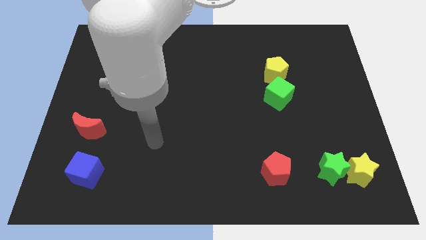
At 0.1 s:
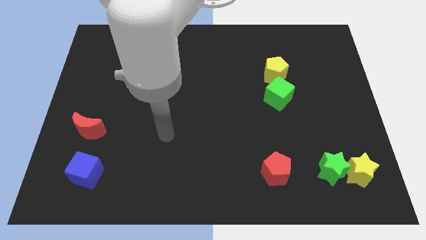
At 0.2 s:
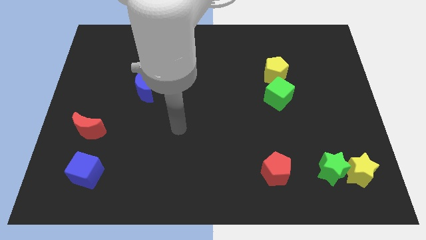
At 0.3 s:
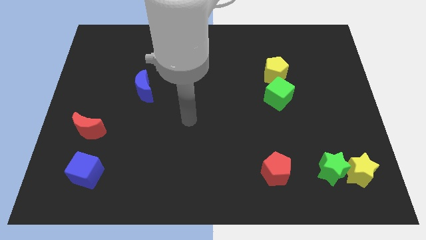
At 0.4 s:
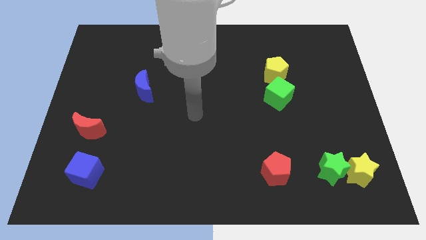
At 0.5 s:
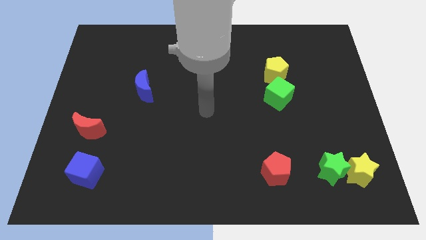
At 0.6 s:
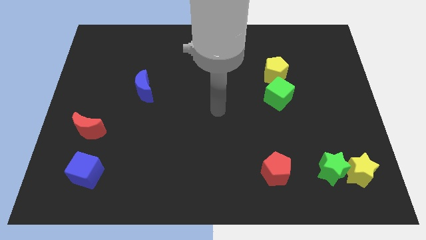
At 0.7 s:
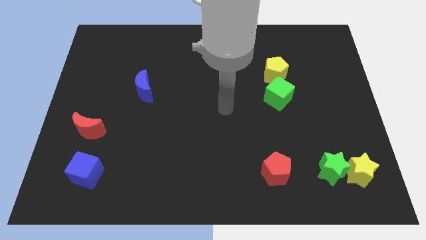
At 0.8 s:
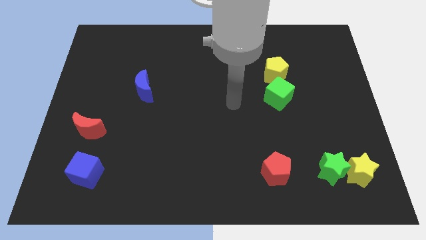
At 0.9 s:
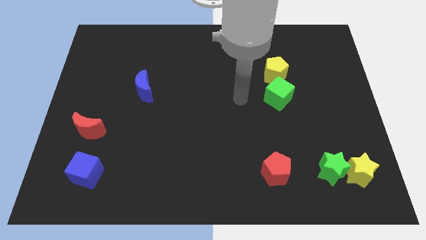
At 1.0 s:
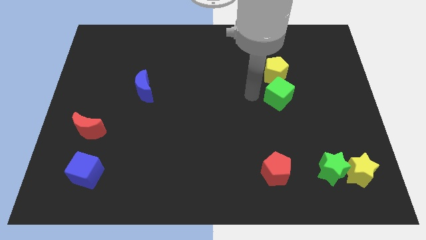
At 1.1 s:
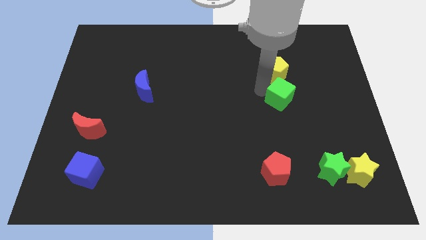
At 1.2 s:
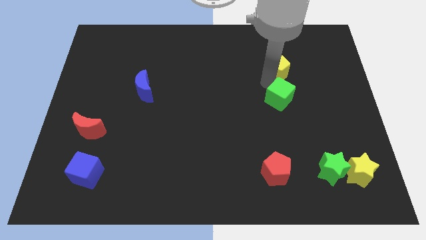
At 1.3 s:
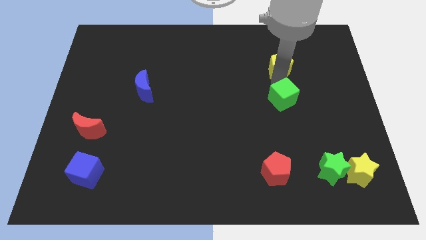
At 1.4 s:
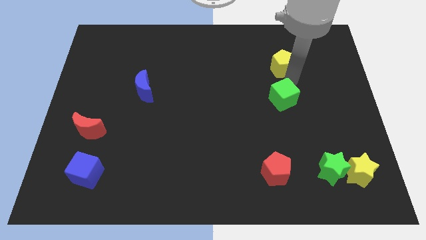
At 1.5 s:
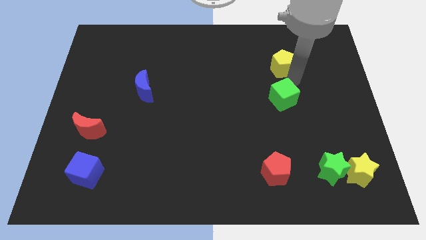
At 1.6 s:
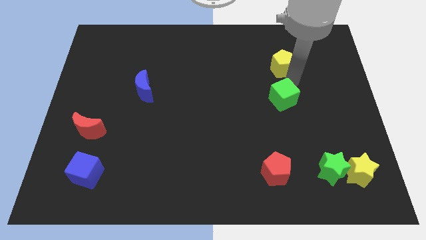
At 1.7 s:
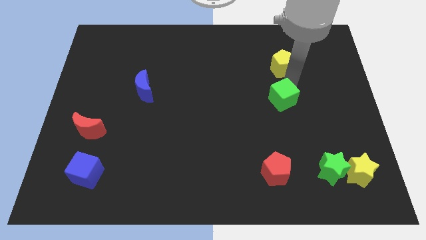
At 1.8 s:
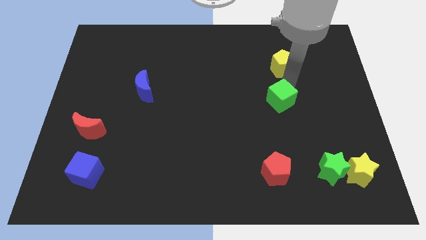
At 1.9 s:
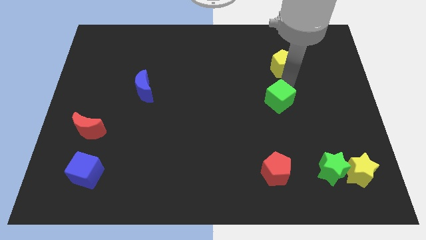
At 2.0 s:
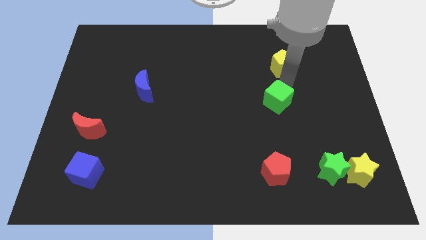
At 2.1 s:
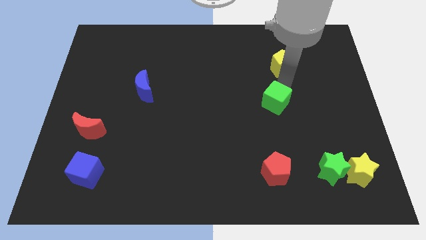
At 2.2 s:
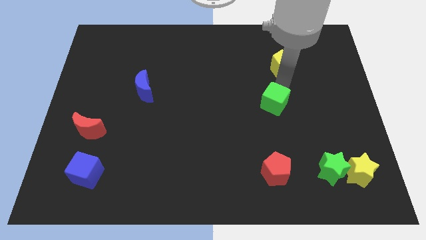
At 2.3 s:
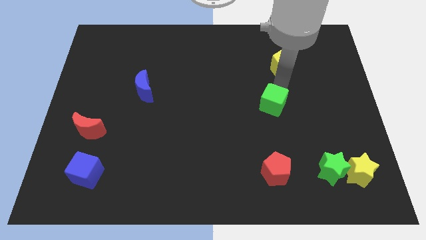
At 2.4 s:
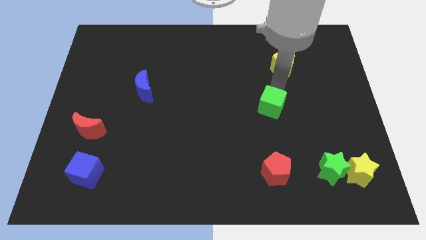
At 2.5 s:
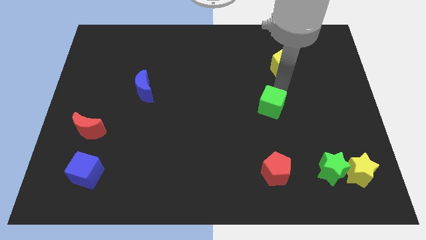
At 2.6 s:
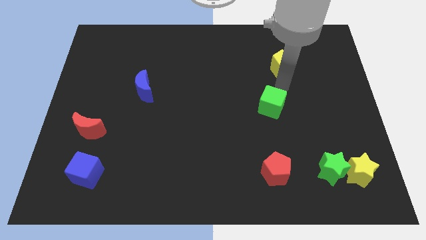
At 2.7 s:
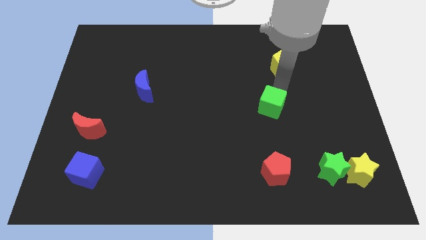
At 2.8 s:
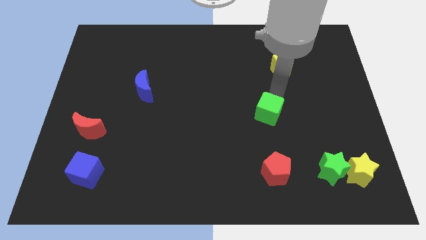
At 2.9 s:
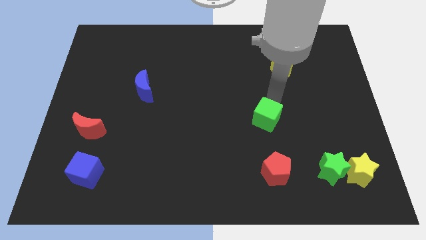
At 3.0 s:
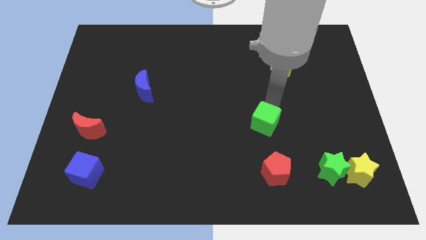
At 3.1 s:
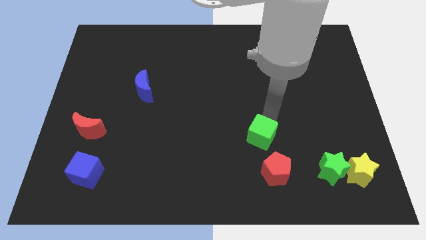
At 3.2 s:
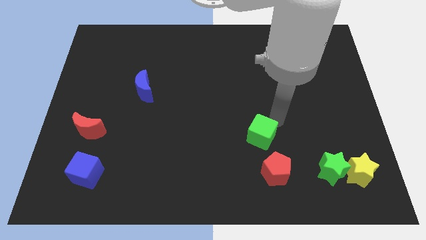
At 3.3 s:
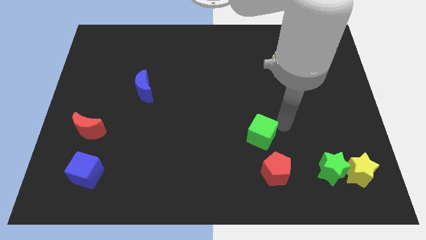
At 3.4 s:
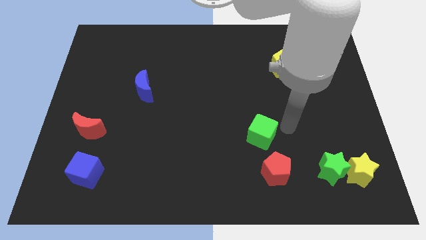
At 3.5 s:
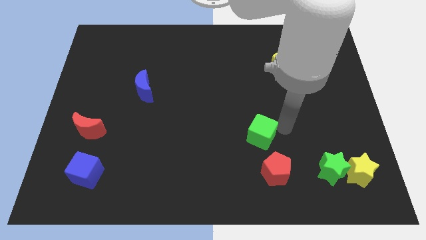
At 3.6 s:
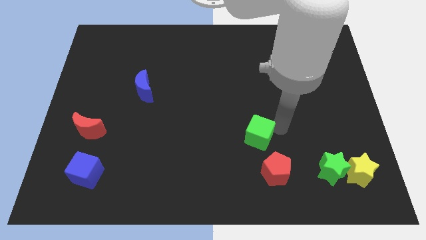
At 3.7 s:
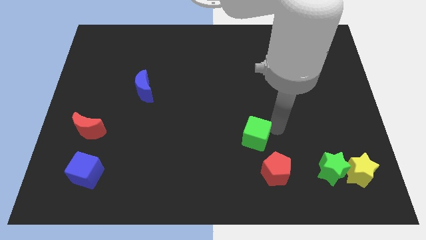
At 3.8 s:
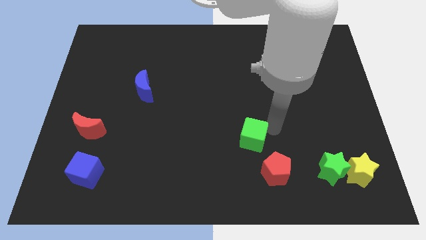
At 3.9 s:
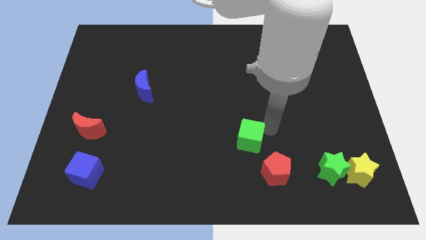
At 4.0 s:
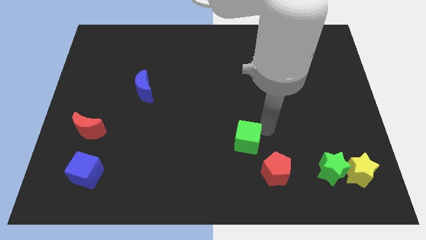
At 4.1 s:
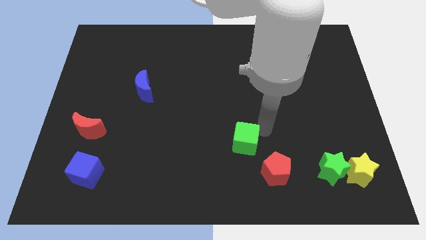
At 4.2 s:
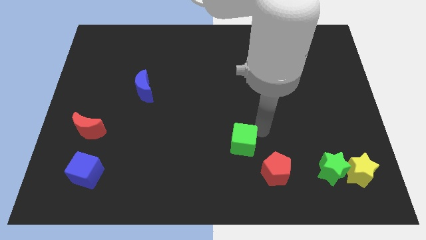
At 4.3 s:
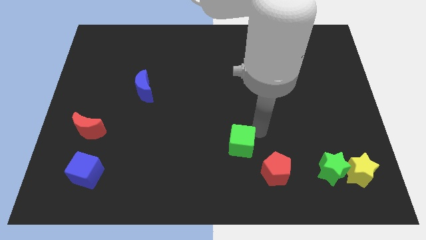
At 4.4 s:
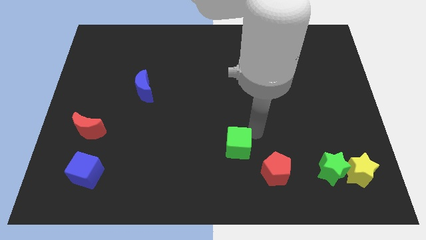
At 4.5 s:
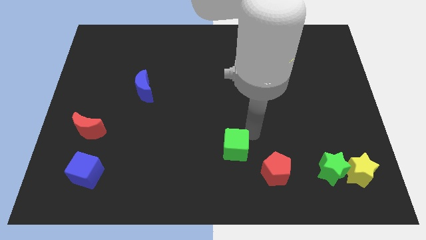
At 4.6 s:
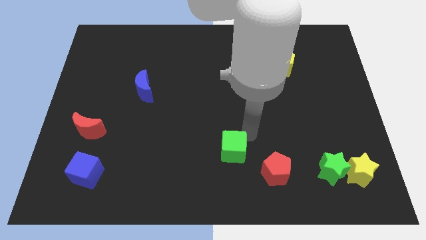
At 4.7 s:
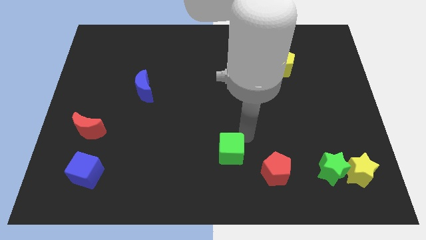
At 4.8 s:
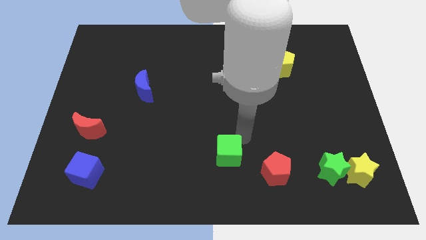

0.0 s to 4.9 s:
slide the green cube diagonally down and left

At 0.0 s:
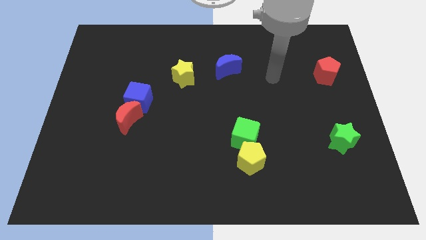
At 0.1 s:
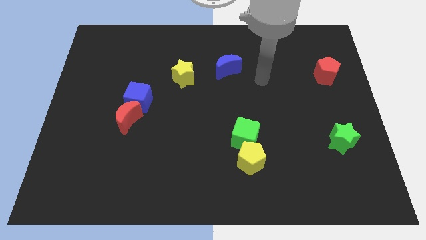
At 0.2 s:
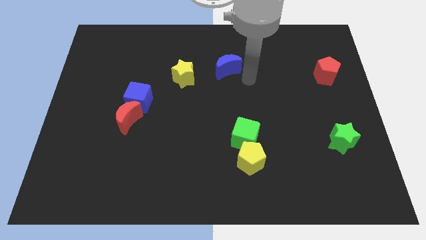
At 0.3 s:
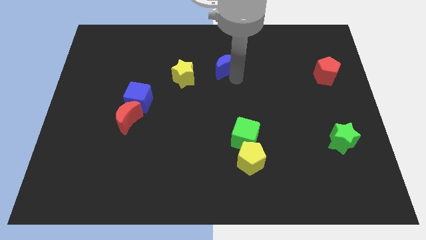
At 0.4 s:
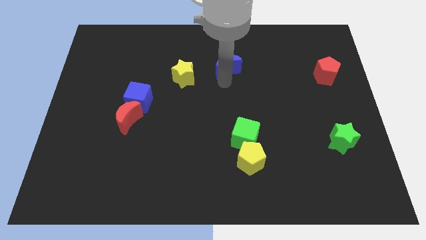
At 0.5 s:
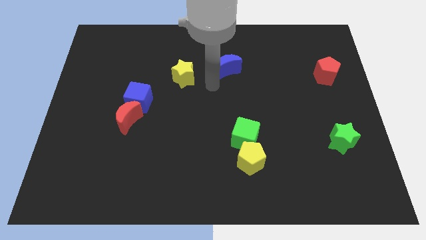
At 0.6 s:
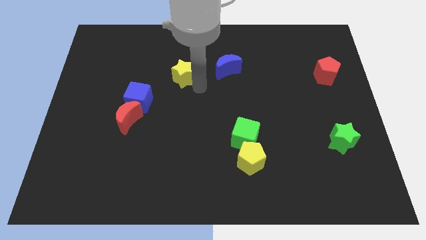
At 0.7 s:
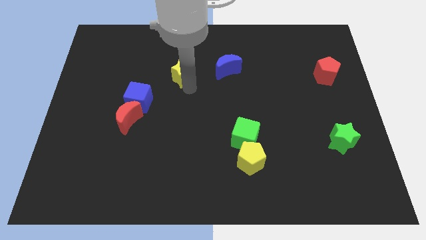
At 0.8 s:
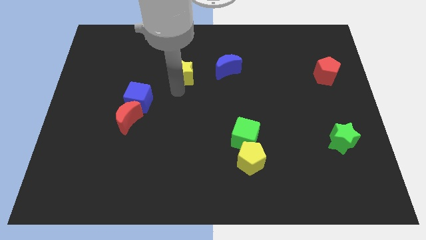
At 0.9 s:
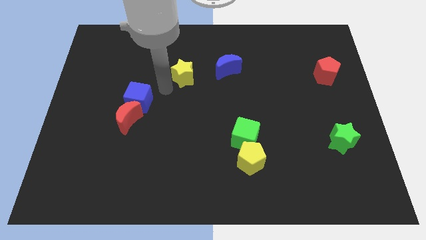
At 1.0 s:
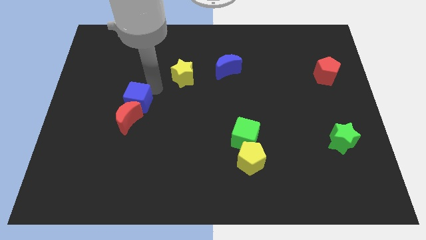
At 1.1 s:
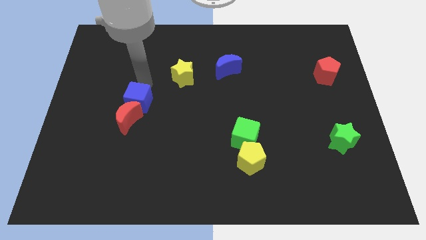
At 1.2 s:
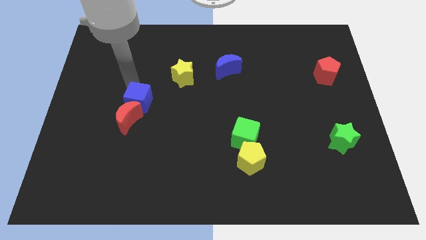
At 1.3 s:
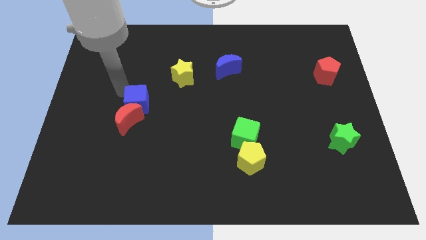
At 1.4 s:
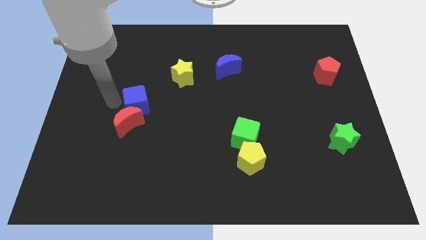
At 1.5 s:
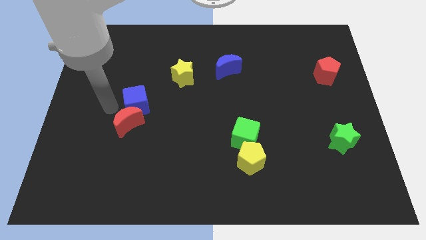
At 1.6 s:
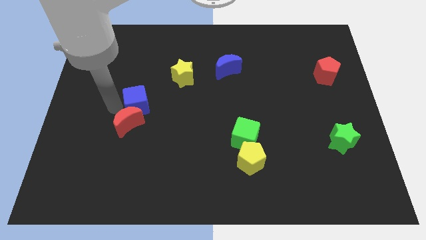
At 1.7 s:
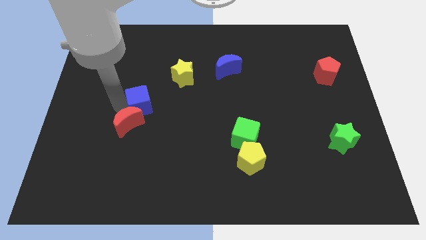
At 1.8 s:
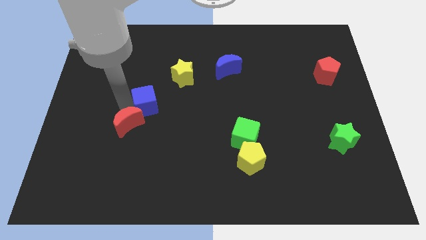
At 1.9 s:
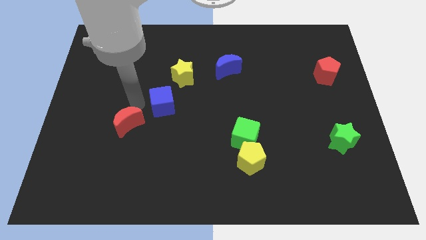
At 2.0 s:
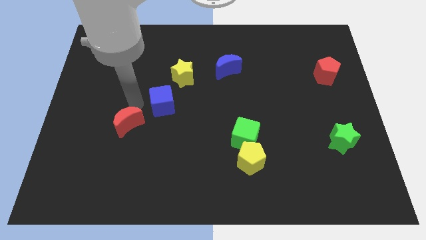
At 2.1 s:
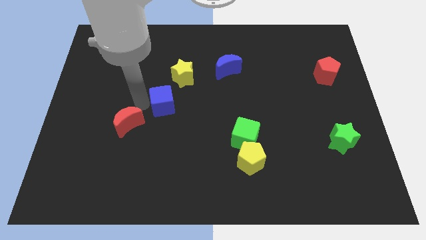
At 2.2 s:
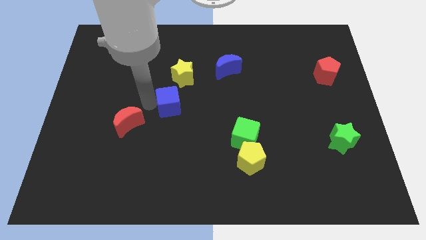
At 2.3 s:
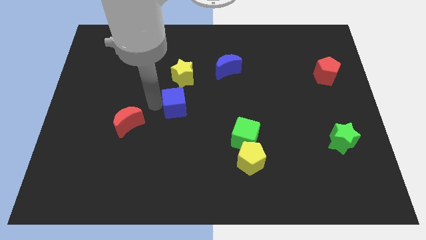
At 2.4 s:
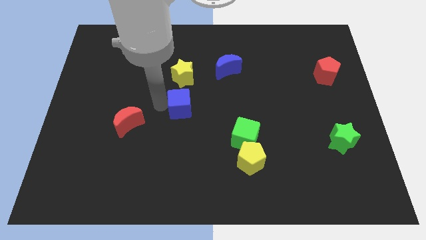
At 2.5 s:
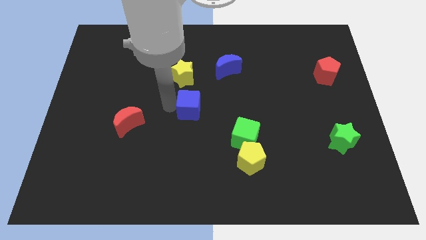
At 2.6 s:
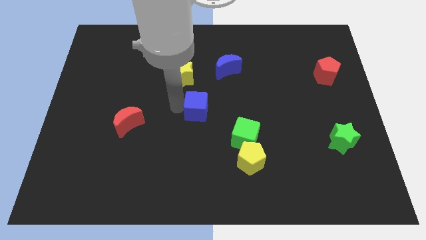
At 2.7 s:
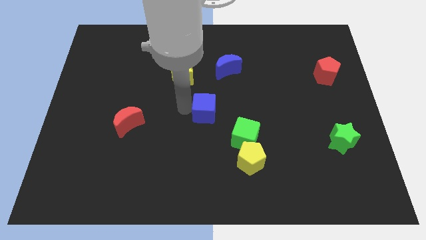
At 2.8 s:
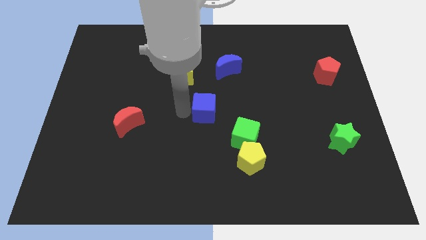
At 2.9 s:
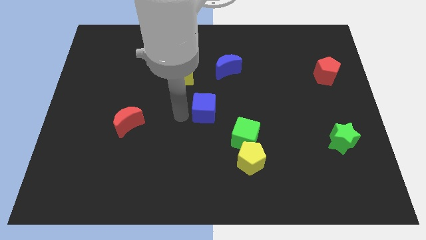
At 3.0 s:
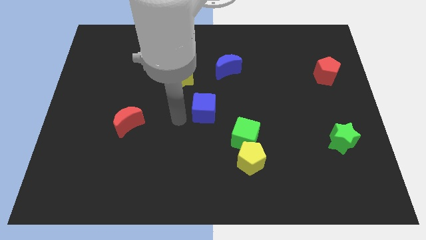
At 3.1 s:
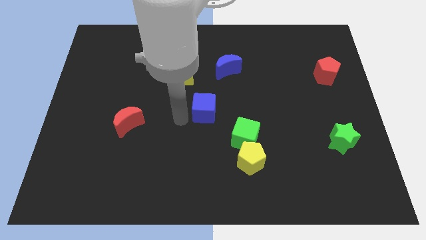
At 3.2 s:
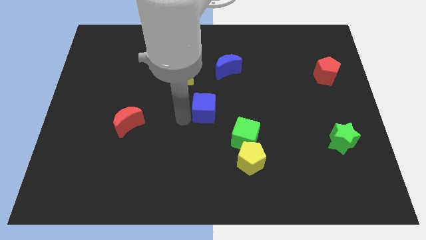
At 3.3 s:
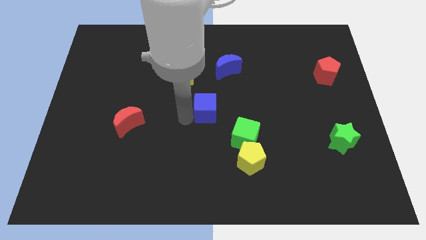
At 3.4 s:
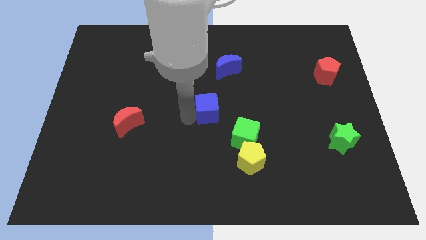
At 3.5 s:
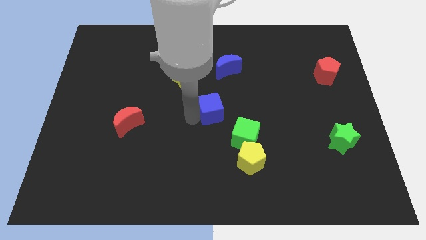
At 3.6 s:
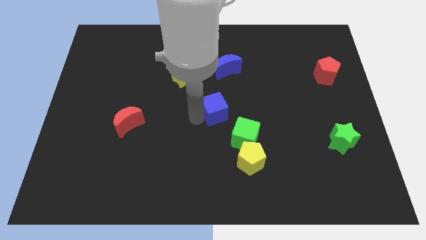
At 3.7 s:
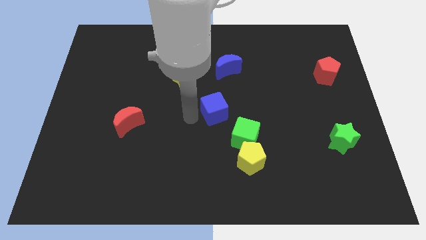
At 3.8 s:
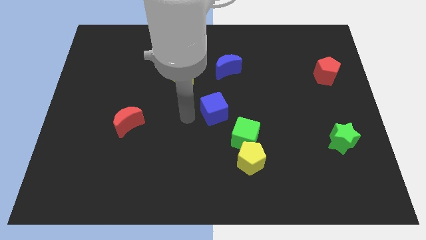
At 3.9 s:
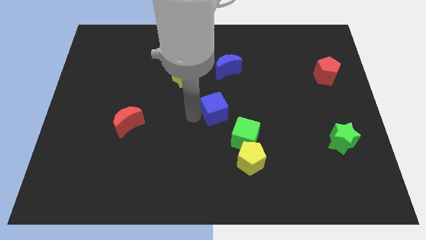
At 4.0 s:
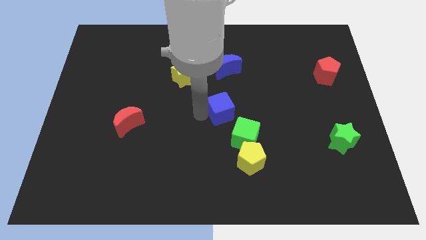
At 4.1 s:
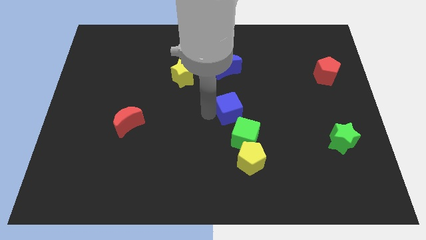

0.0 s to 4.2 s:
slide the blue cube right
